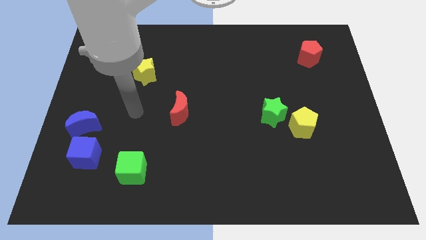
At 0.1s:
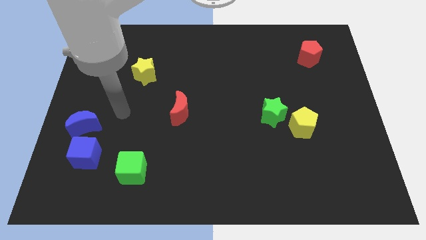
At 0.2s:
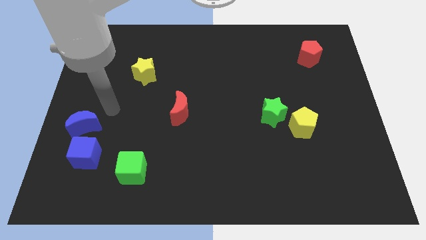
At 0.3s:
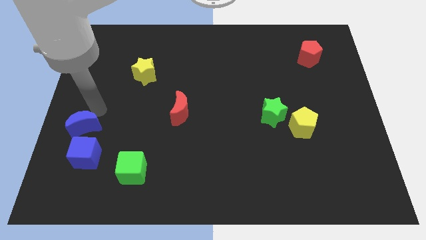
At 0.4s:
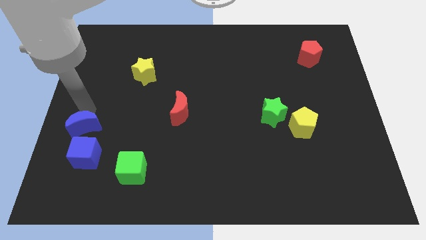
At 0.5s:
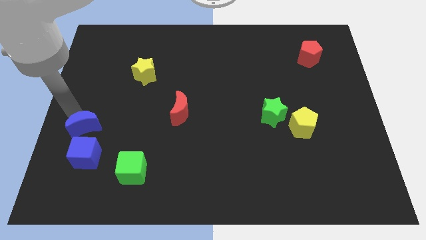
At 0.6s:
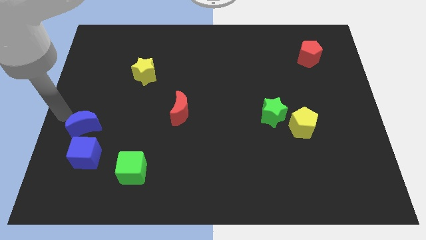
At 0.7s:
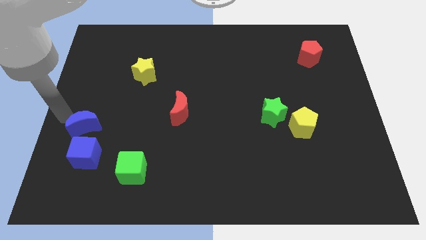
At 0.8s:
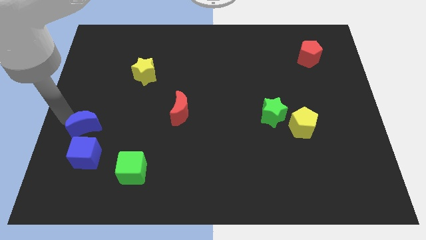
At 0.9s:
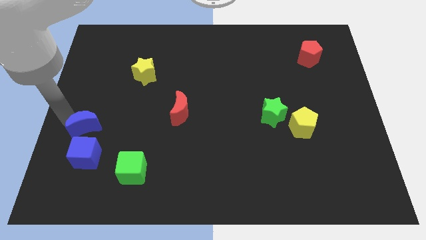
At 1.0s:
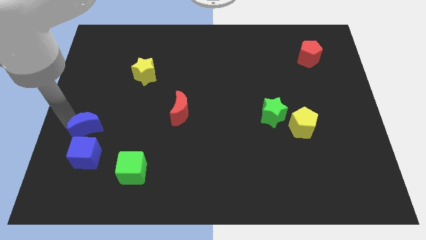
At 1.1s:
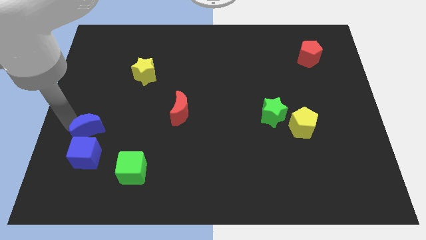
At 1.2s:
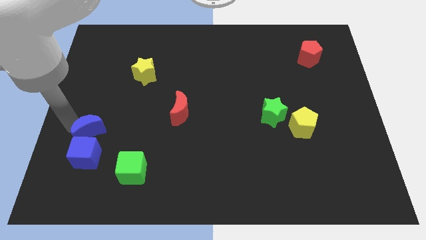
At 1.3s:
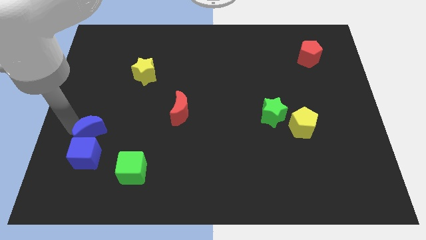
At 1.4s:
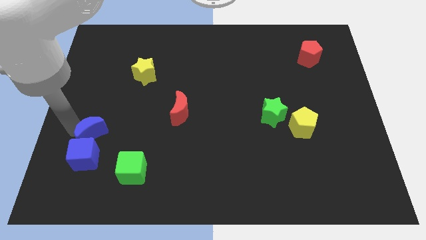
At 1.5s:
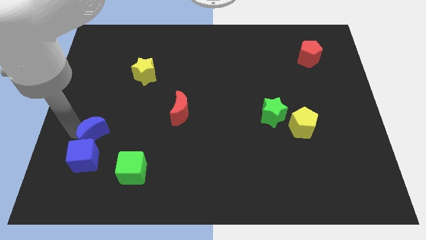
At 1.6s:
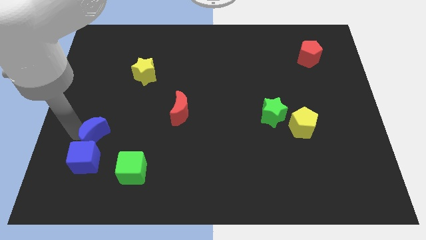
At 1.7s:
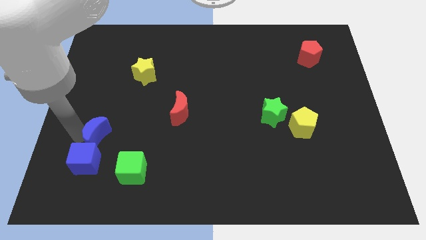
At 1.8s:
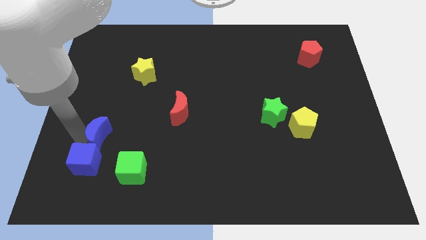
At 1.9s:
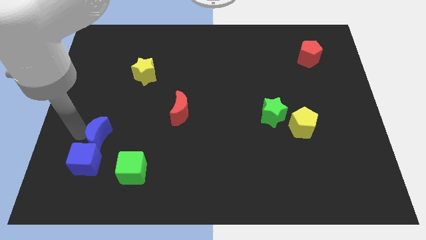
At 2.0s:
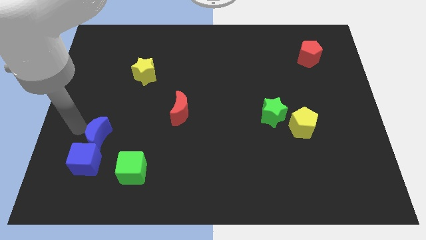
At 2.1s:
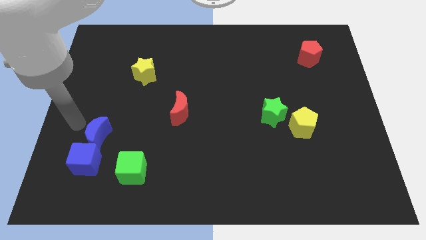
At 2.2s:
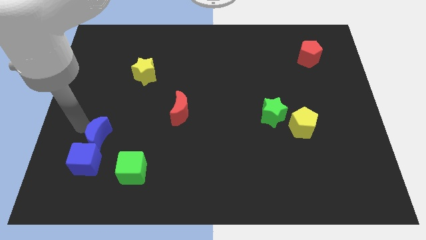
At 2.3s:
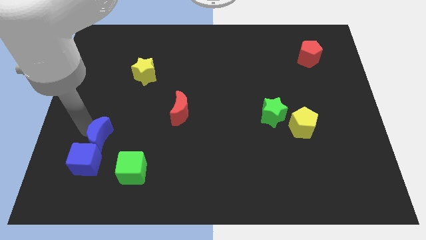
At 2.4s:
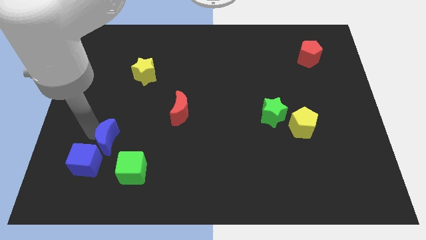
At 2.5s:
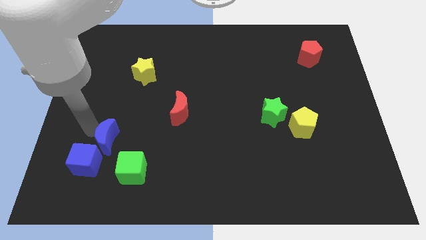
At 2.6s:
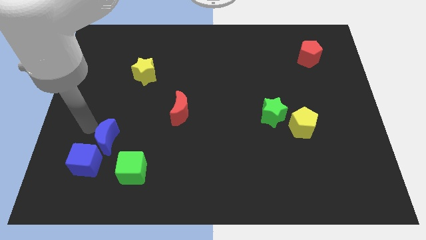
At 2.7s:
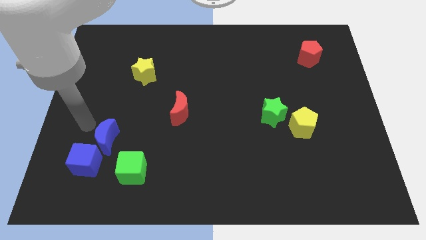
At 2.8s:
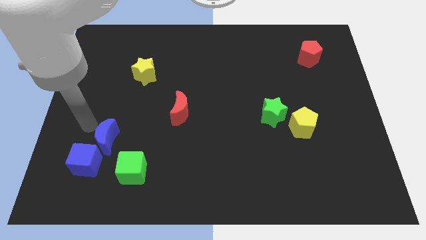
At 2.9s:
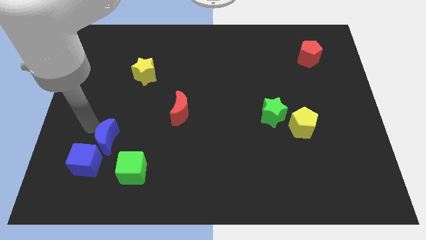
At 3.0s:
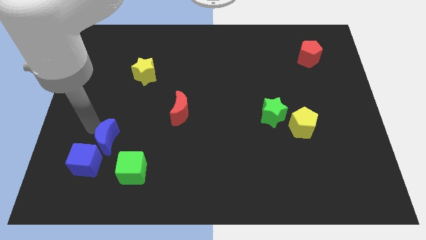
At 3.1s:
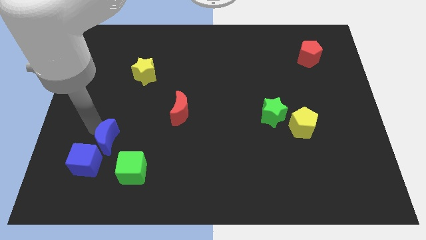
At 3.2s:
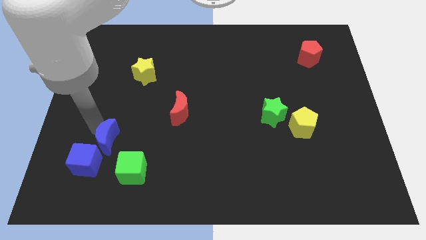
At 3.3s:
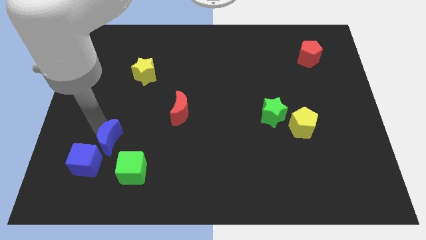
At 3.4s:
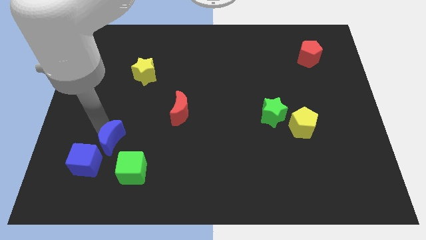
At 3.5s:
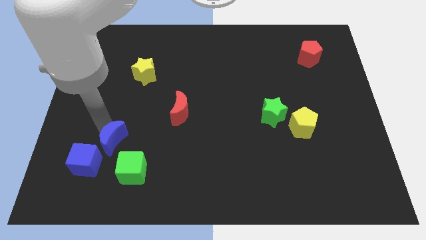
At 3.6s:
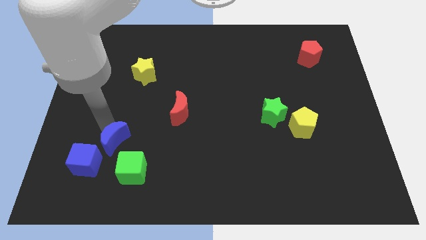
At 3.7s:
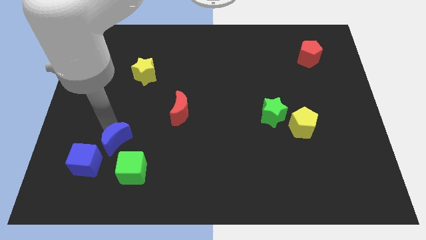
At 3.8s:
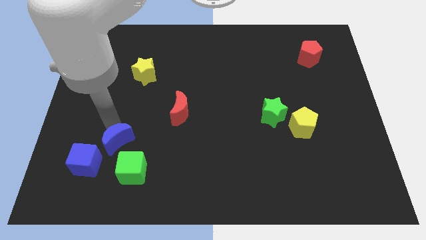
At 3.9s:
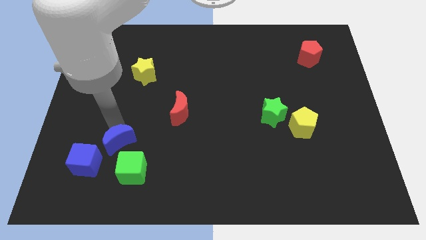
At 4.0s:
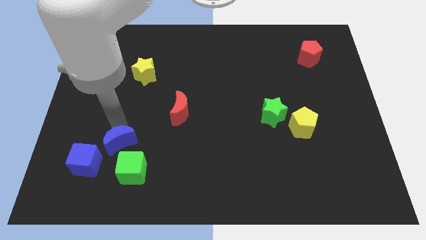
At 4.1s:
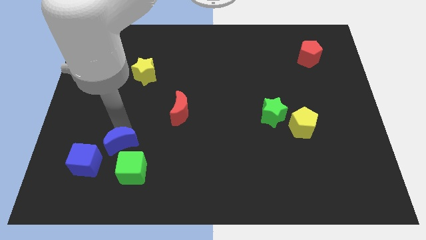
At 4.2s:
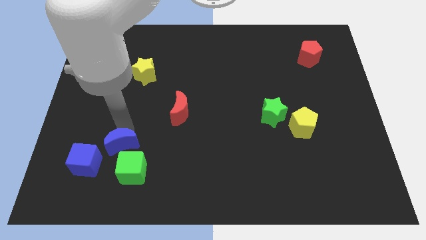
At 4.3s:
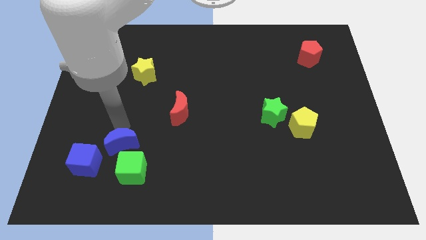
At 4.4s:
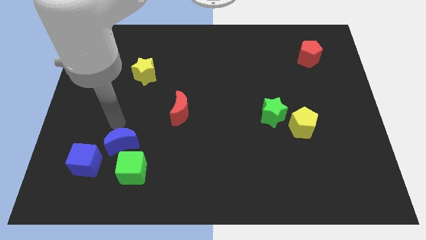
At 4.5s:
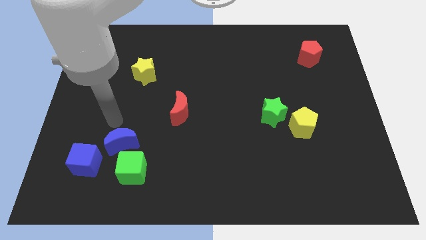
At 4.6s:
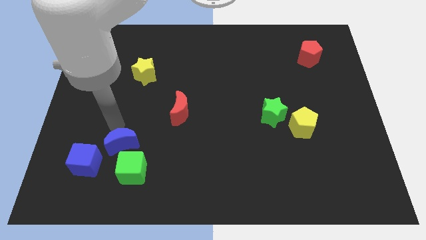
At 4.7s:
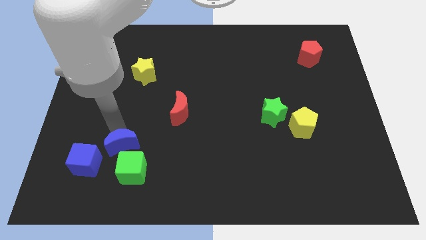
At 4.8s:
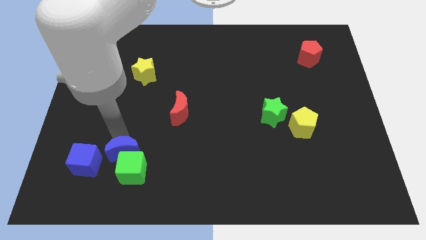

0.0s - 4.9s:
push the blue moon close to the green cube

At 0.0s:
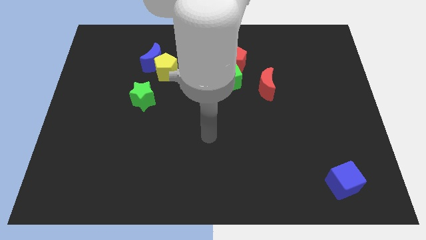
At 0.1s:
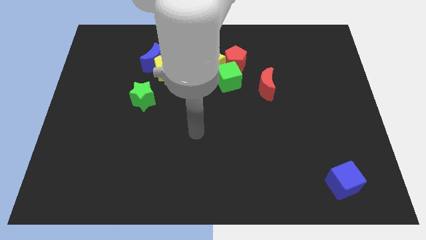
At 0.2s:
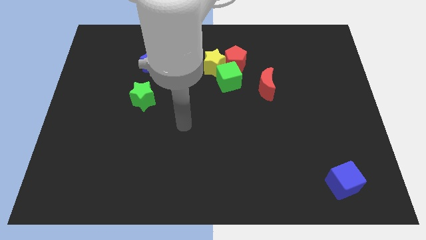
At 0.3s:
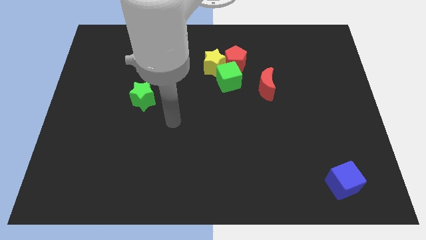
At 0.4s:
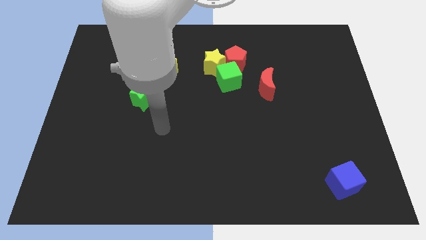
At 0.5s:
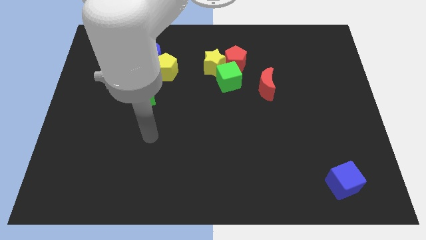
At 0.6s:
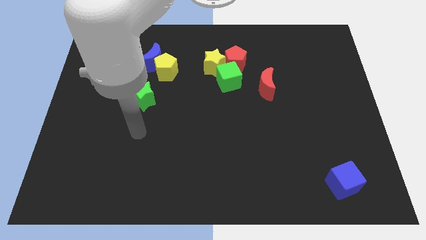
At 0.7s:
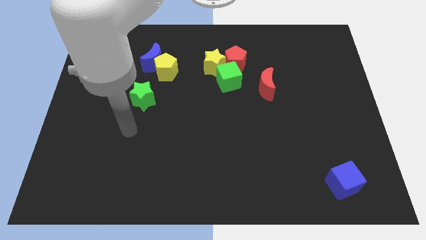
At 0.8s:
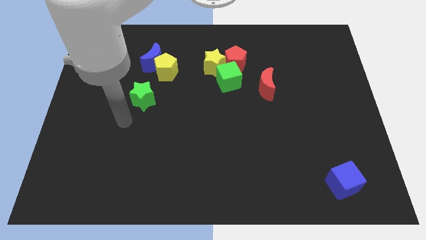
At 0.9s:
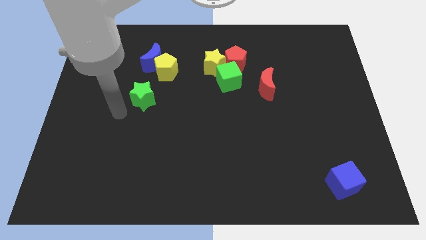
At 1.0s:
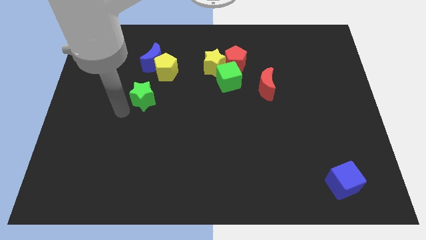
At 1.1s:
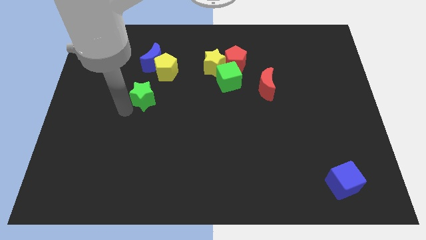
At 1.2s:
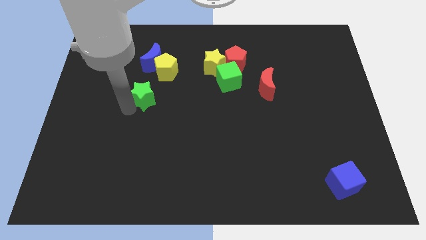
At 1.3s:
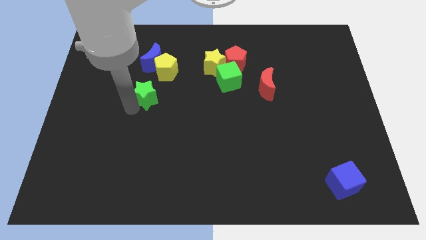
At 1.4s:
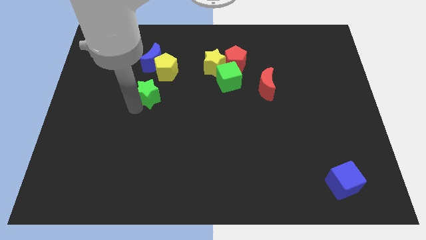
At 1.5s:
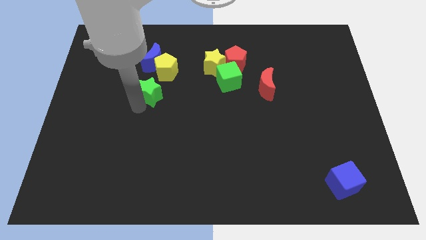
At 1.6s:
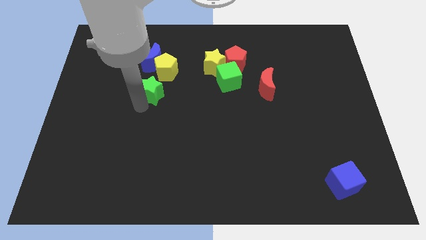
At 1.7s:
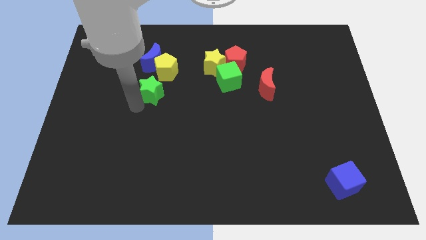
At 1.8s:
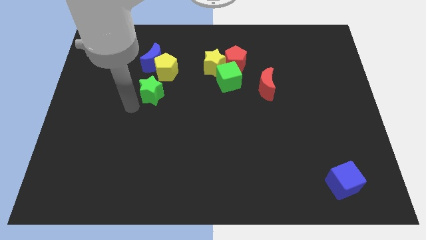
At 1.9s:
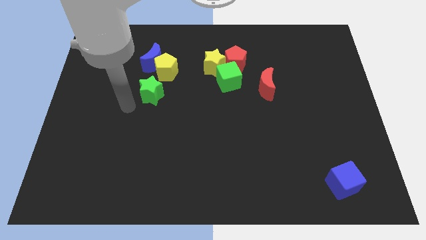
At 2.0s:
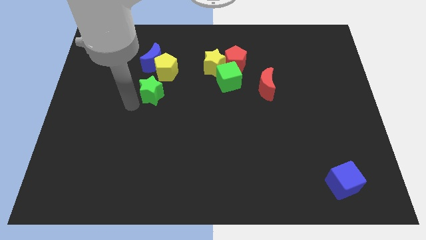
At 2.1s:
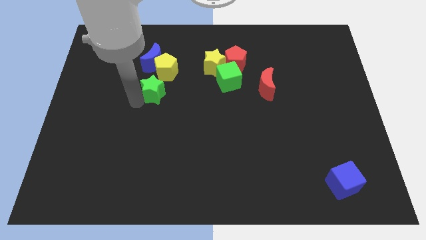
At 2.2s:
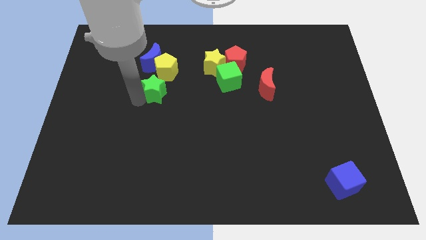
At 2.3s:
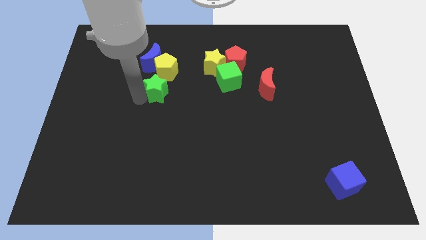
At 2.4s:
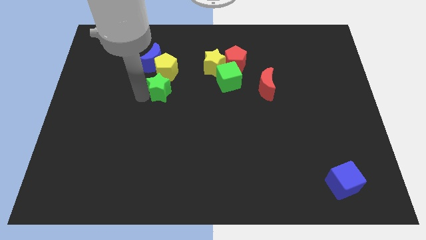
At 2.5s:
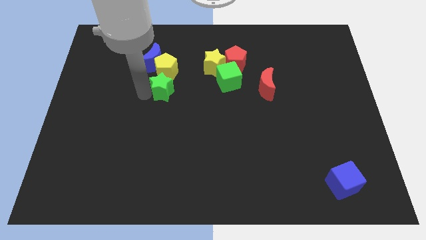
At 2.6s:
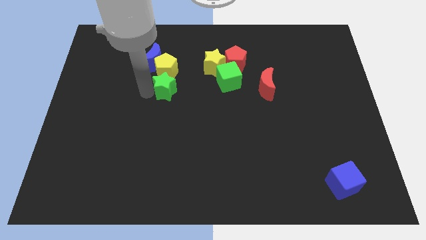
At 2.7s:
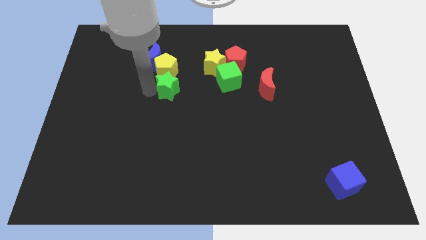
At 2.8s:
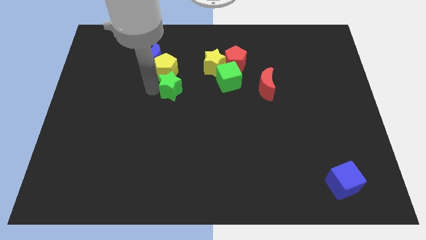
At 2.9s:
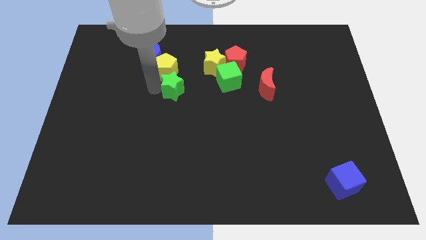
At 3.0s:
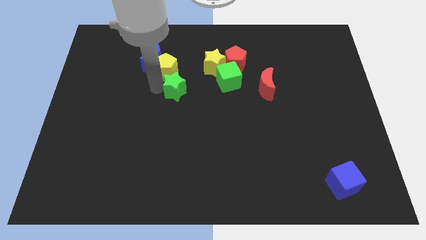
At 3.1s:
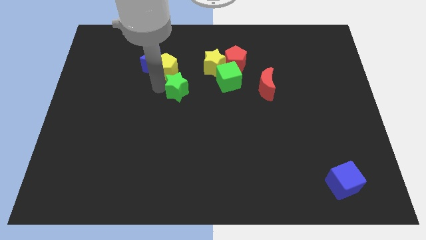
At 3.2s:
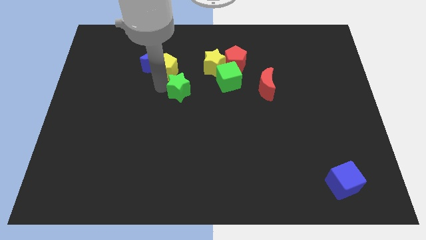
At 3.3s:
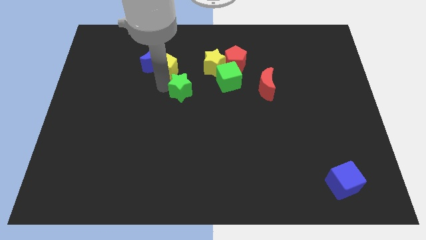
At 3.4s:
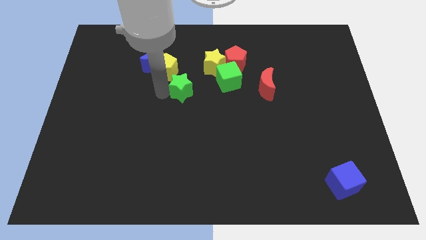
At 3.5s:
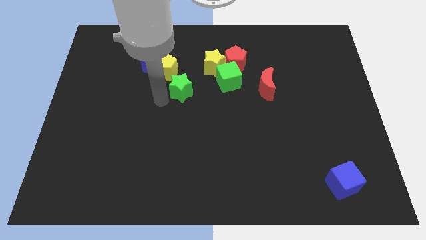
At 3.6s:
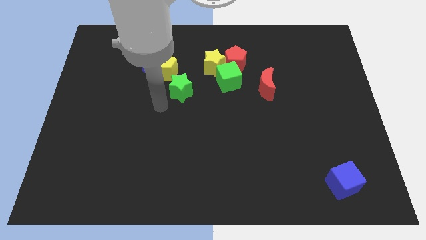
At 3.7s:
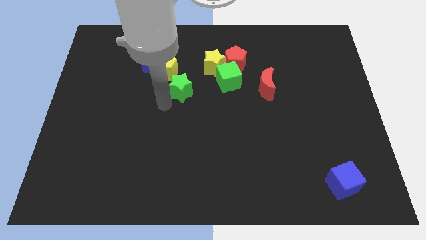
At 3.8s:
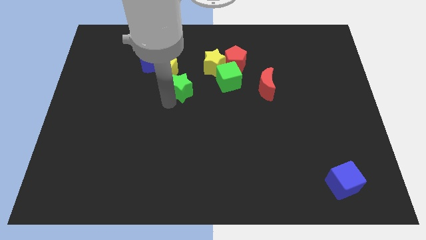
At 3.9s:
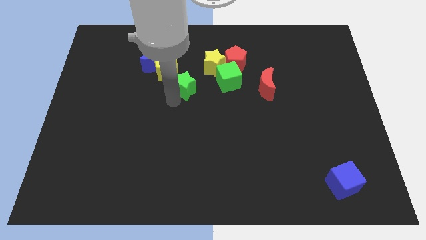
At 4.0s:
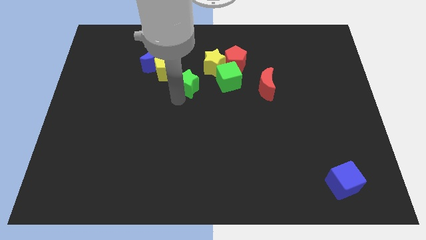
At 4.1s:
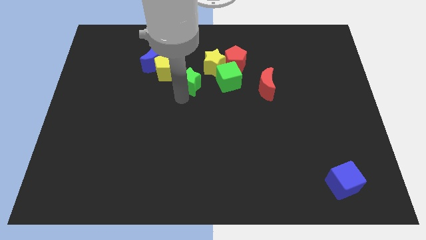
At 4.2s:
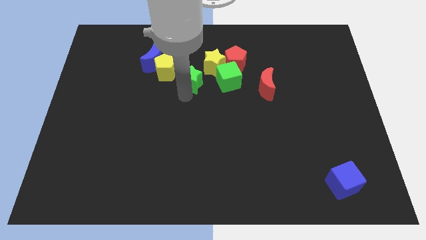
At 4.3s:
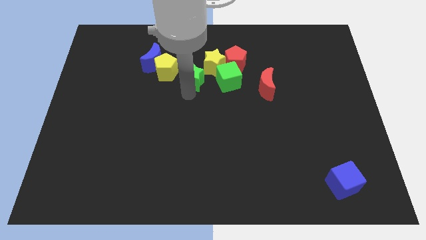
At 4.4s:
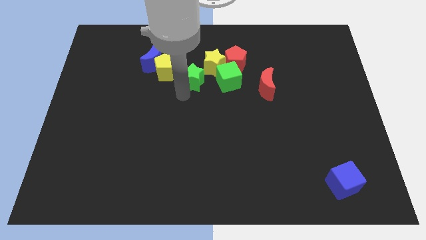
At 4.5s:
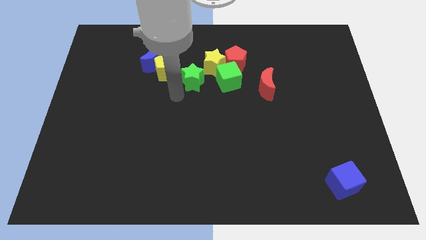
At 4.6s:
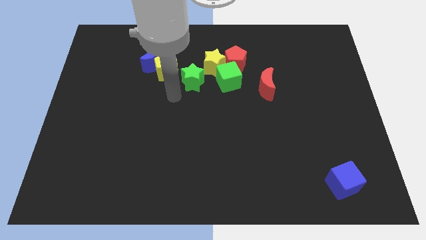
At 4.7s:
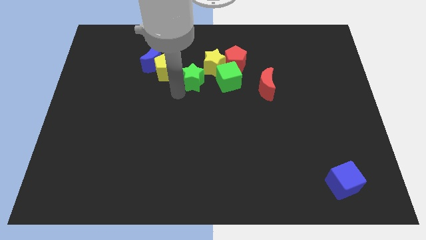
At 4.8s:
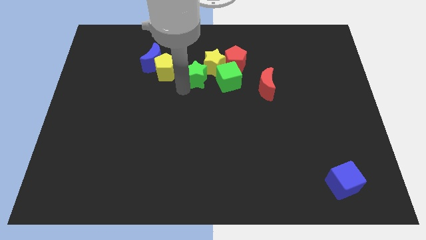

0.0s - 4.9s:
put the green star towards the yellow star
